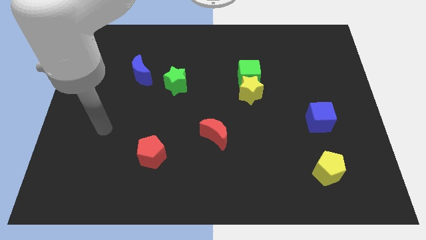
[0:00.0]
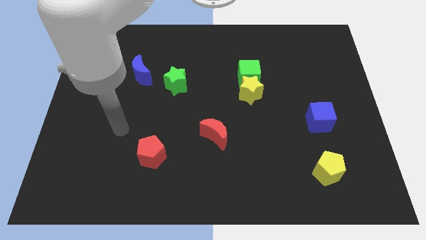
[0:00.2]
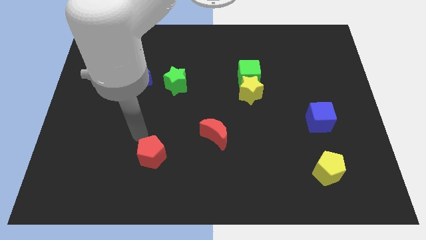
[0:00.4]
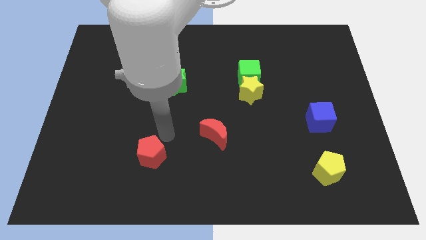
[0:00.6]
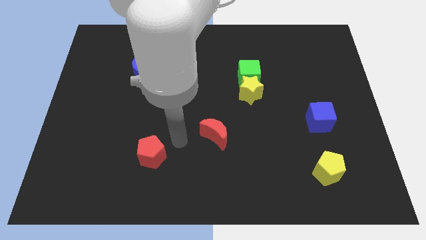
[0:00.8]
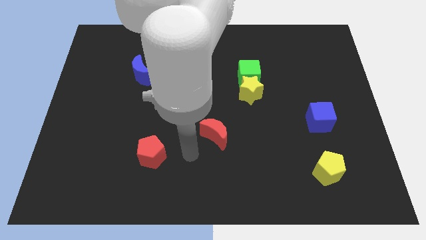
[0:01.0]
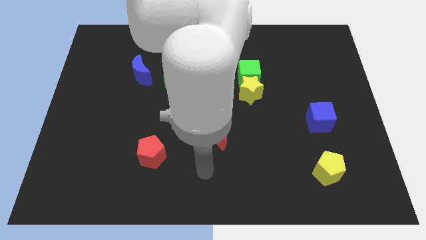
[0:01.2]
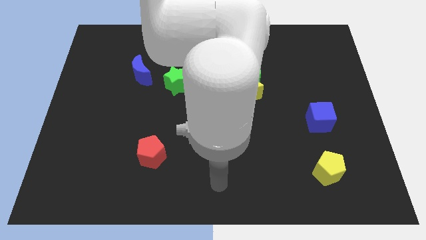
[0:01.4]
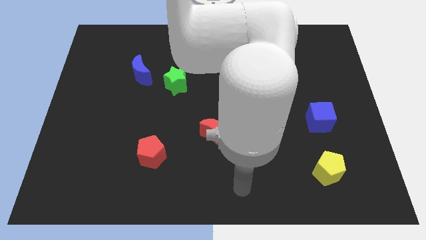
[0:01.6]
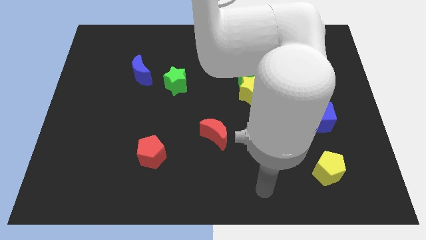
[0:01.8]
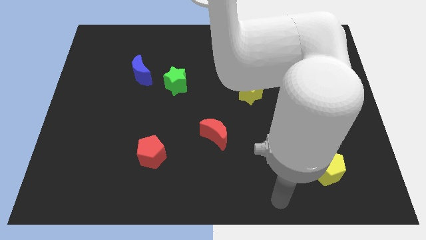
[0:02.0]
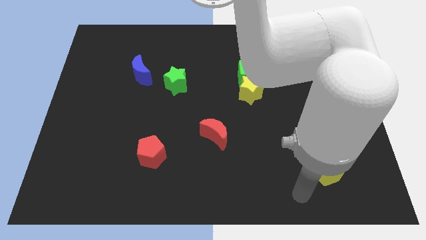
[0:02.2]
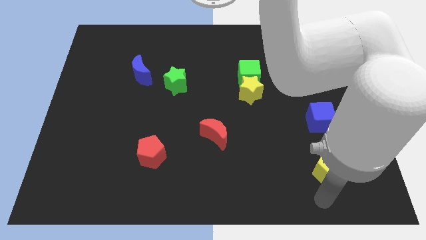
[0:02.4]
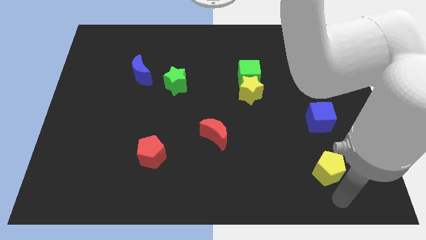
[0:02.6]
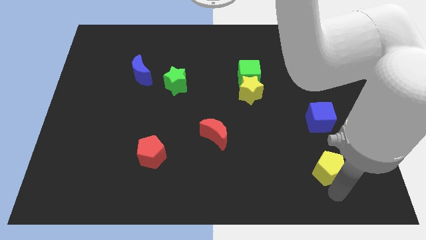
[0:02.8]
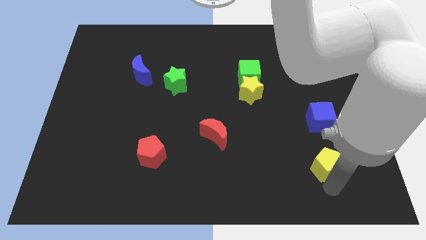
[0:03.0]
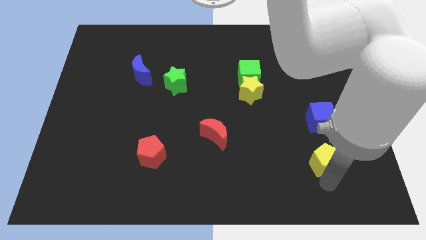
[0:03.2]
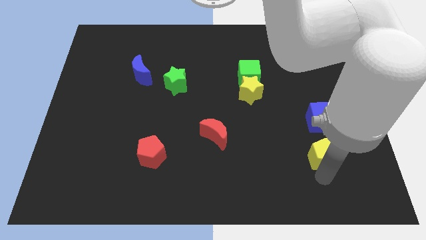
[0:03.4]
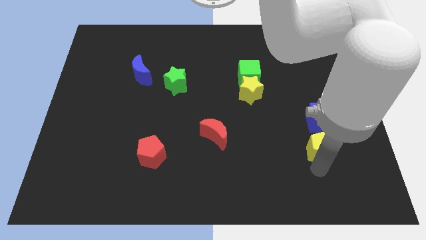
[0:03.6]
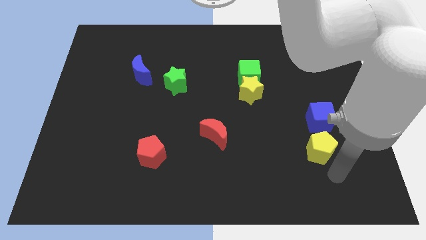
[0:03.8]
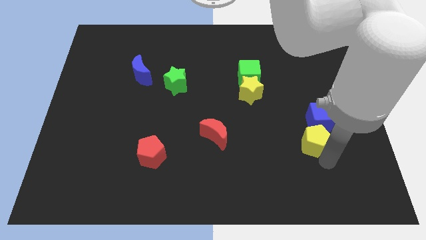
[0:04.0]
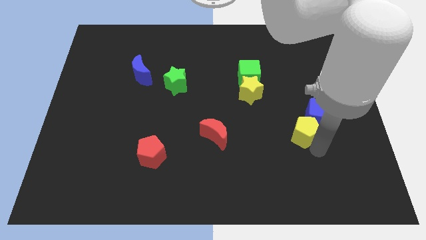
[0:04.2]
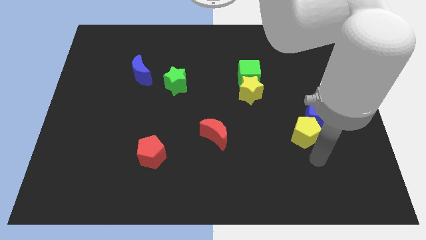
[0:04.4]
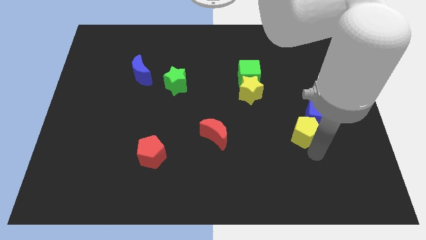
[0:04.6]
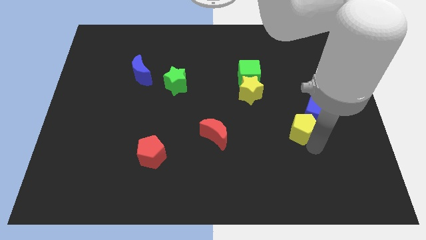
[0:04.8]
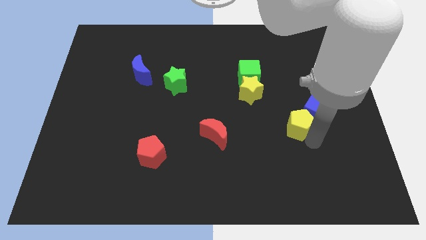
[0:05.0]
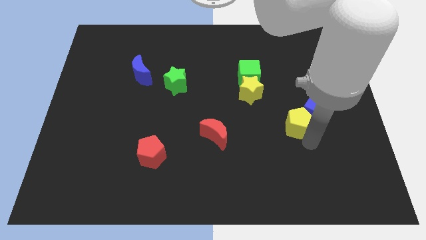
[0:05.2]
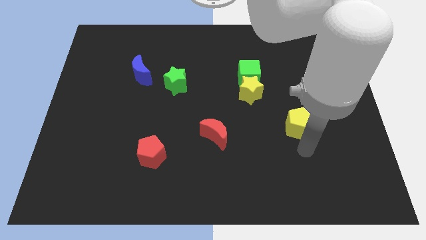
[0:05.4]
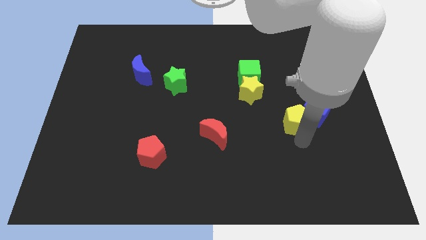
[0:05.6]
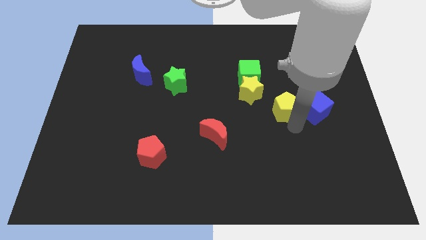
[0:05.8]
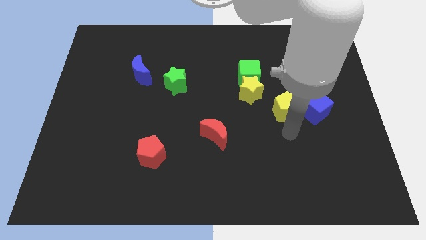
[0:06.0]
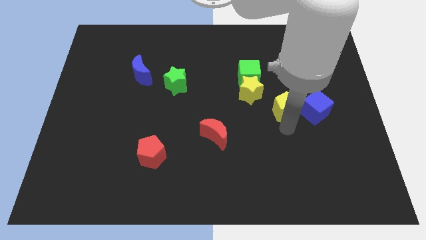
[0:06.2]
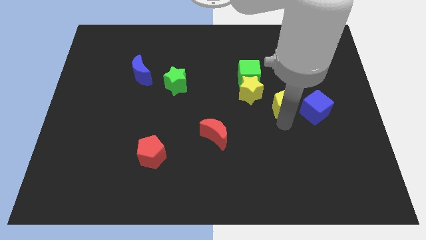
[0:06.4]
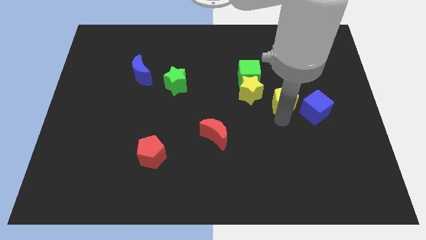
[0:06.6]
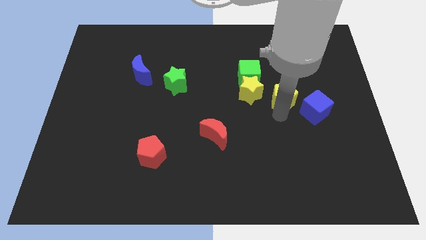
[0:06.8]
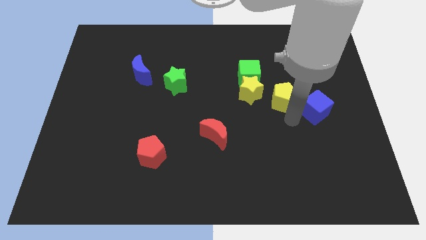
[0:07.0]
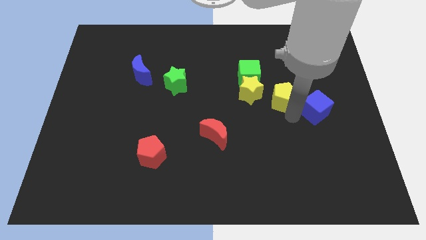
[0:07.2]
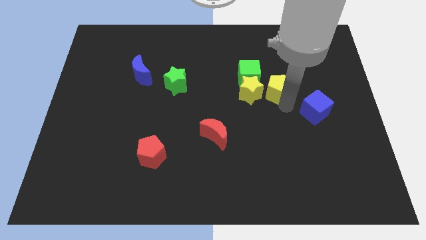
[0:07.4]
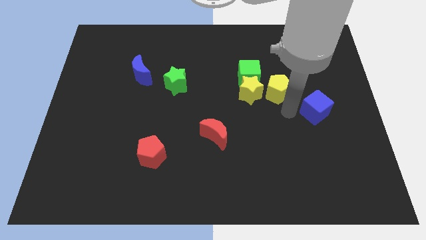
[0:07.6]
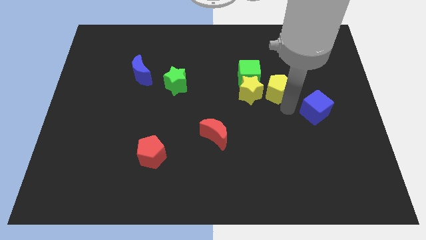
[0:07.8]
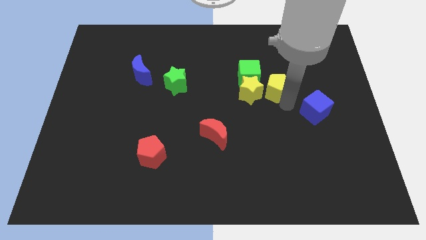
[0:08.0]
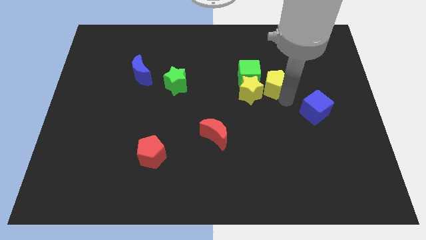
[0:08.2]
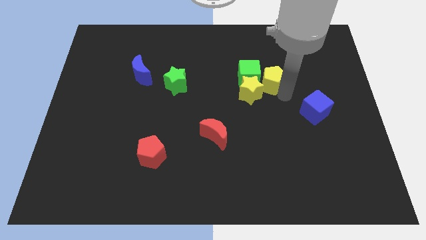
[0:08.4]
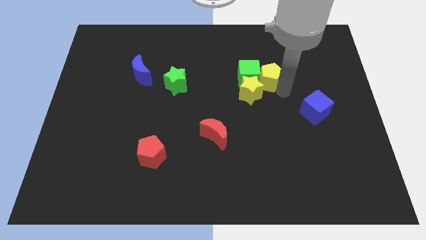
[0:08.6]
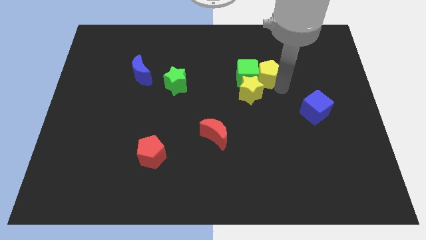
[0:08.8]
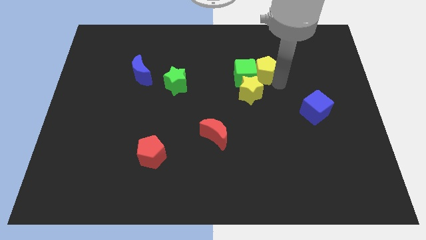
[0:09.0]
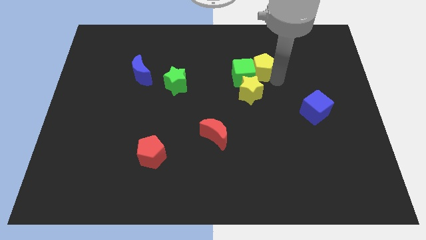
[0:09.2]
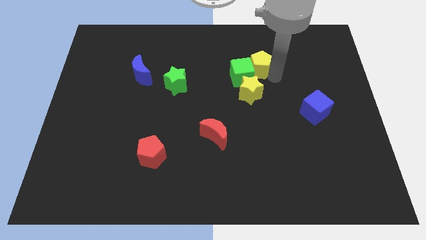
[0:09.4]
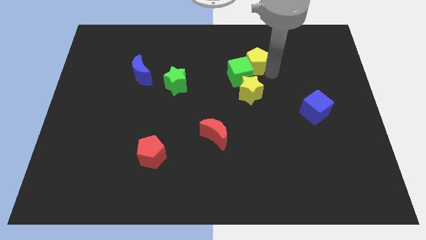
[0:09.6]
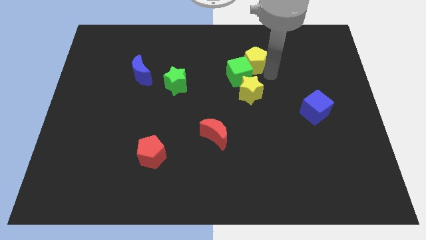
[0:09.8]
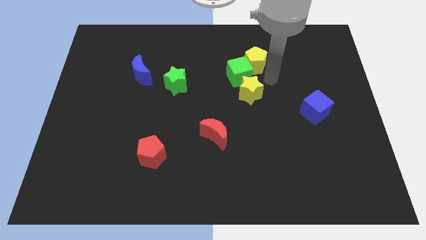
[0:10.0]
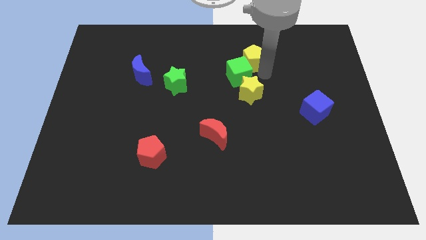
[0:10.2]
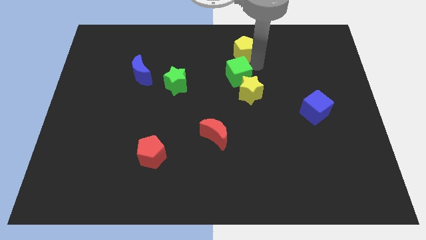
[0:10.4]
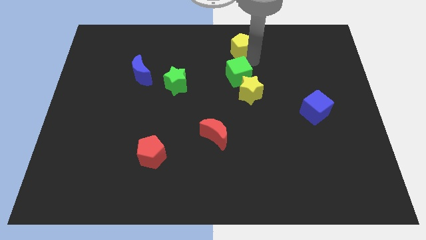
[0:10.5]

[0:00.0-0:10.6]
put the yellow pentagon to the top side
